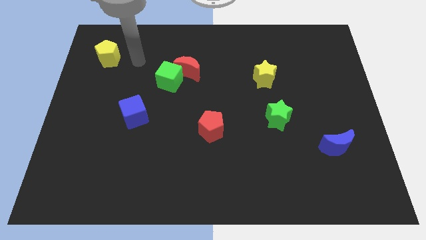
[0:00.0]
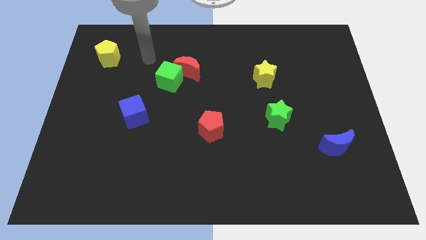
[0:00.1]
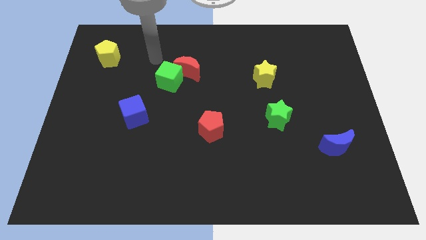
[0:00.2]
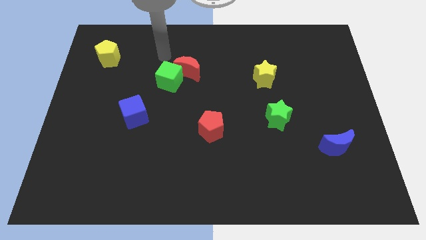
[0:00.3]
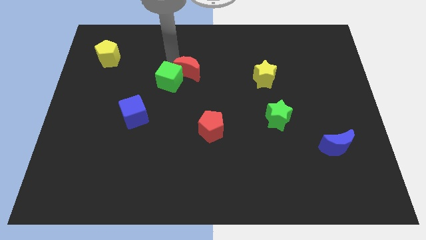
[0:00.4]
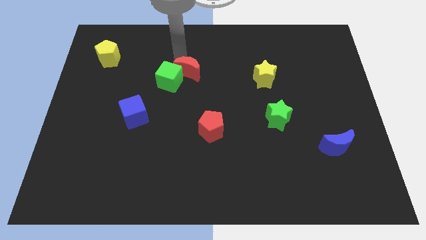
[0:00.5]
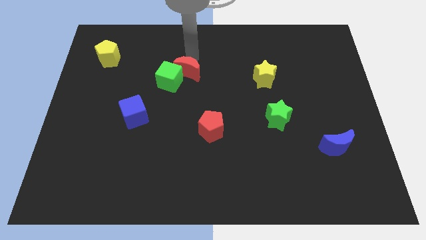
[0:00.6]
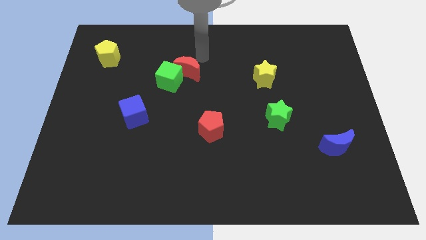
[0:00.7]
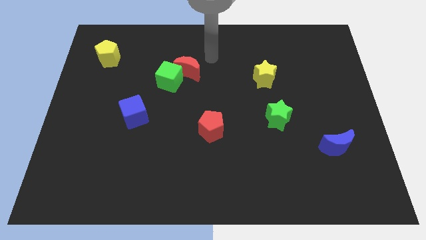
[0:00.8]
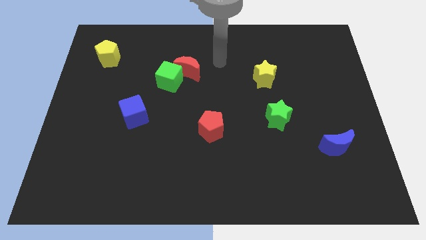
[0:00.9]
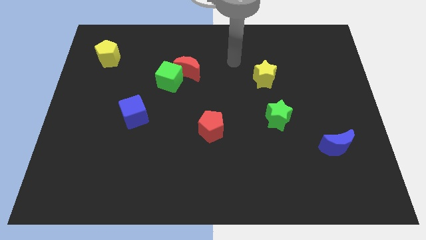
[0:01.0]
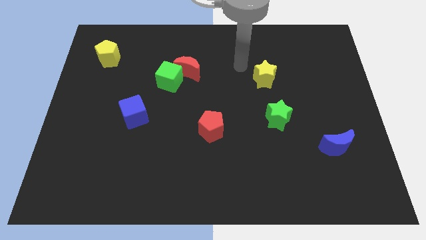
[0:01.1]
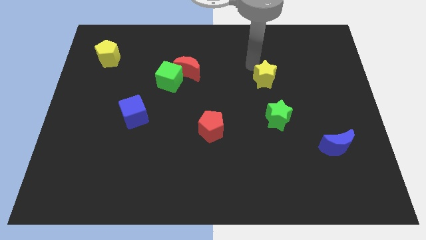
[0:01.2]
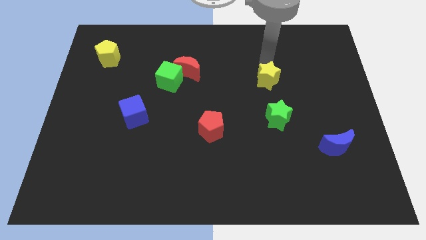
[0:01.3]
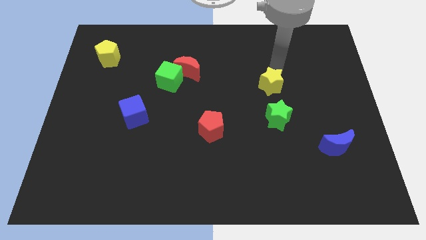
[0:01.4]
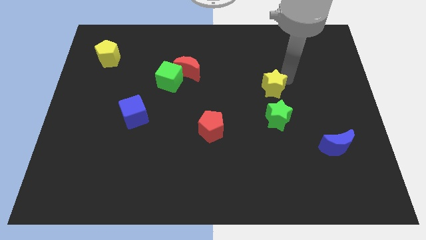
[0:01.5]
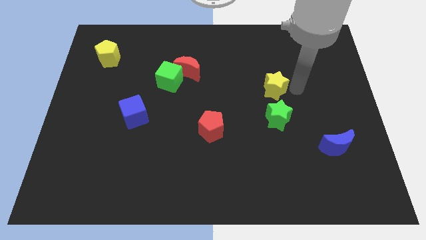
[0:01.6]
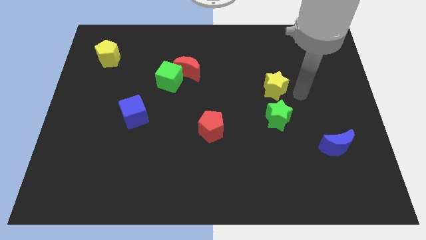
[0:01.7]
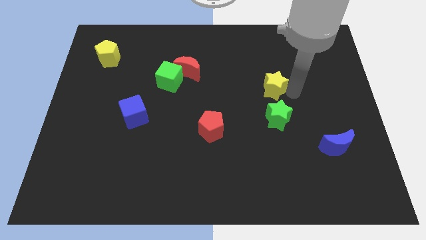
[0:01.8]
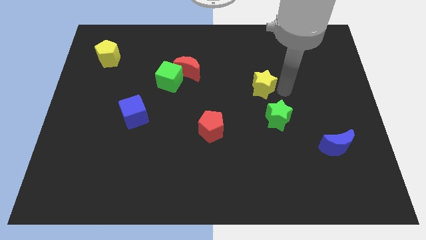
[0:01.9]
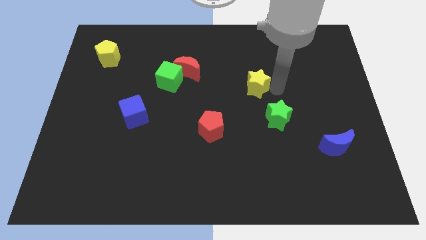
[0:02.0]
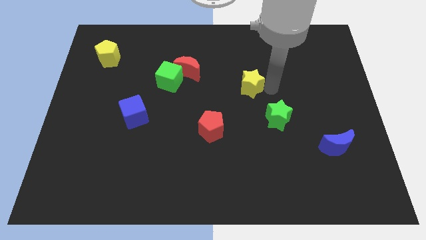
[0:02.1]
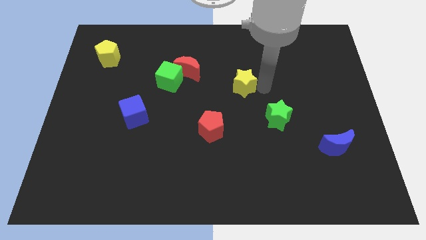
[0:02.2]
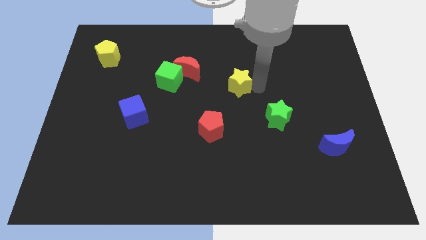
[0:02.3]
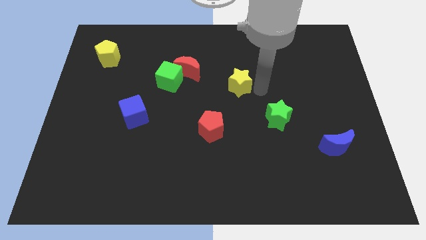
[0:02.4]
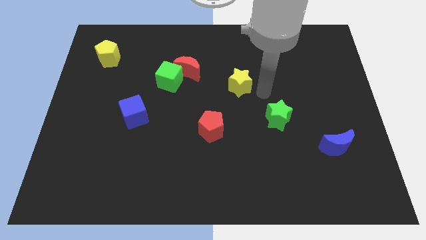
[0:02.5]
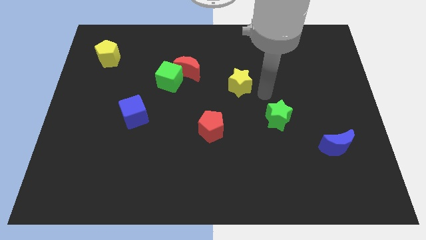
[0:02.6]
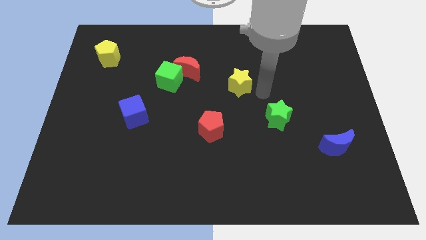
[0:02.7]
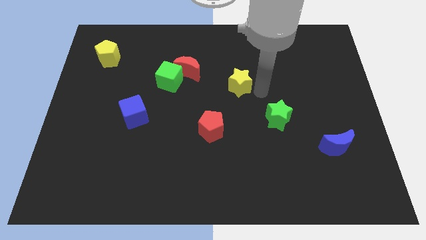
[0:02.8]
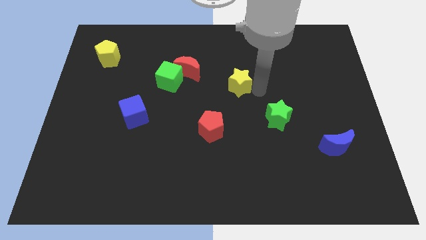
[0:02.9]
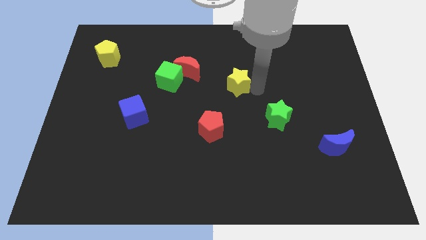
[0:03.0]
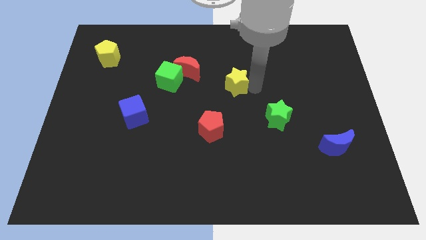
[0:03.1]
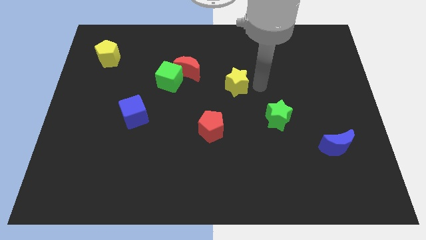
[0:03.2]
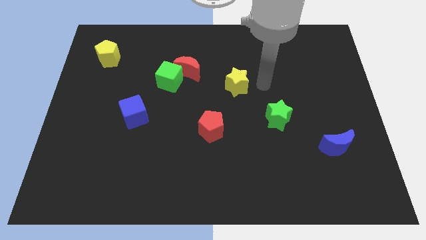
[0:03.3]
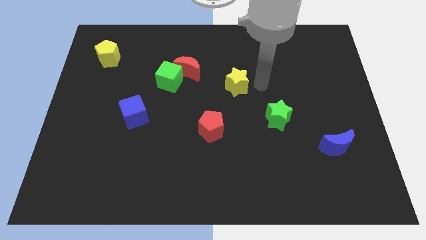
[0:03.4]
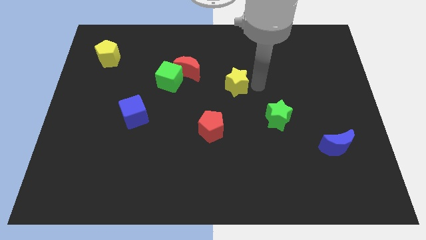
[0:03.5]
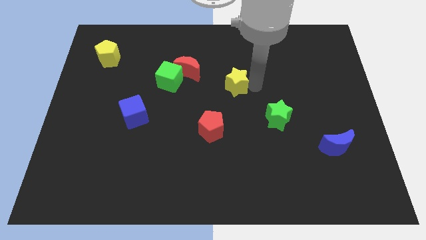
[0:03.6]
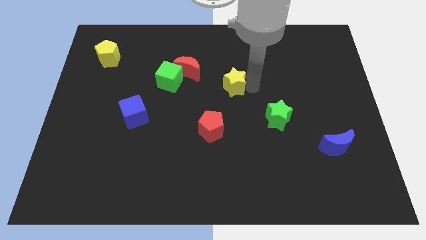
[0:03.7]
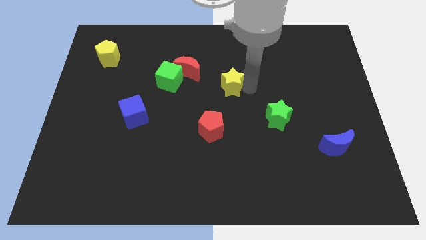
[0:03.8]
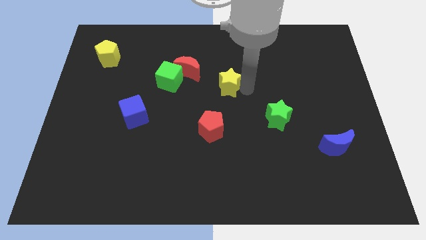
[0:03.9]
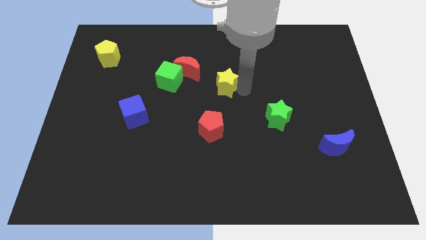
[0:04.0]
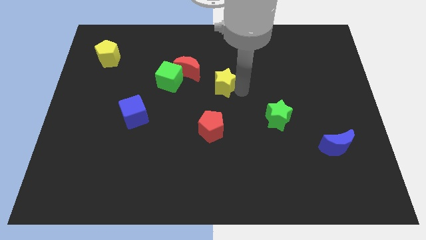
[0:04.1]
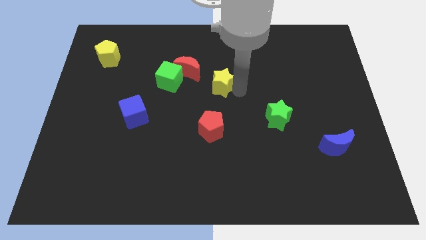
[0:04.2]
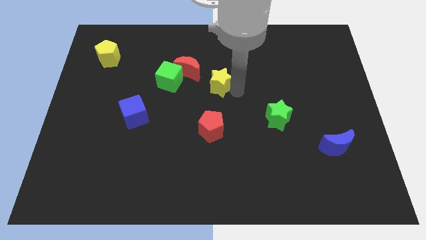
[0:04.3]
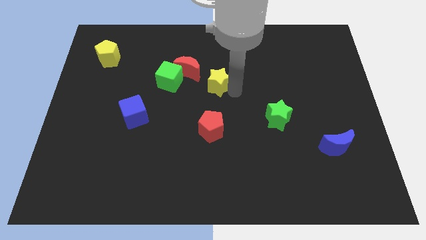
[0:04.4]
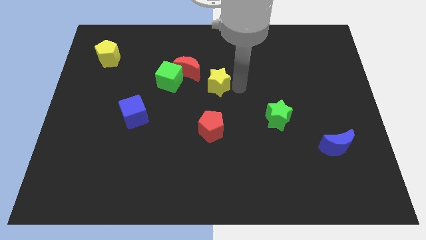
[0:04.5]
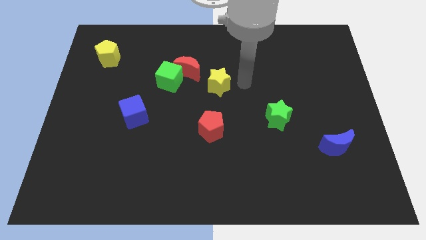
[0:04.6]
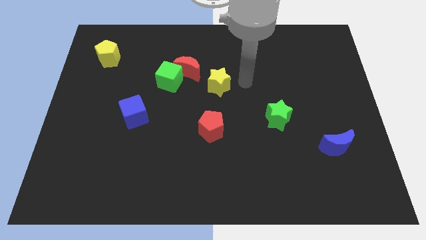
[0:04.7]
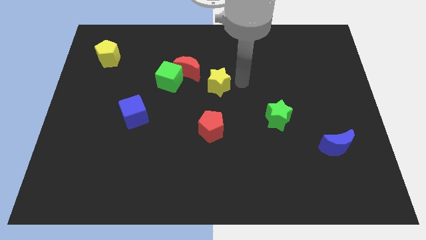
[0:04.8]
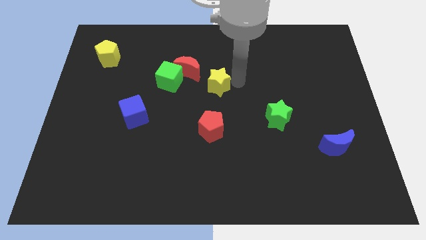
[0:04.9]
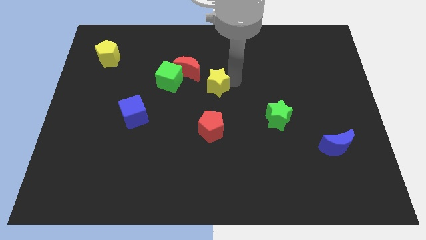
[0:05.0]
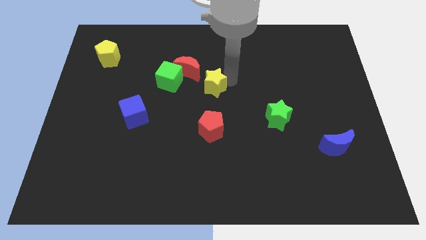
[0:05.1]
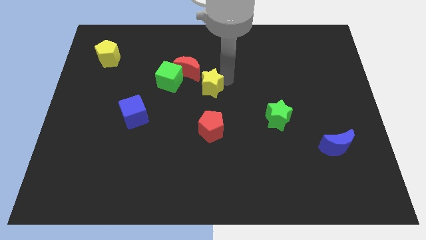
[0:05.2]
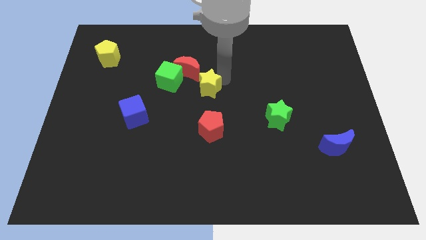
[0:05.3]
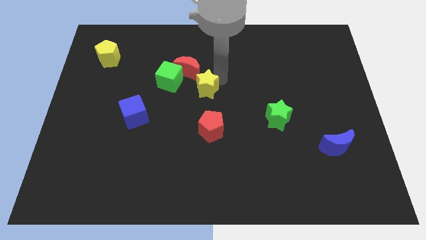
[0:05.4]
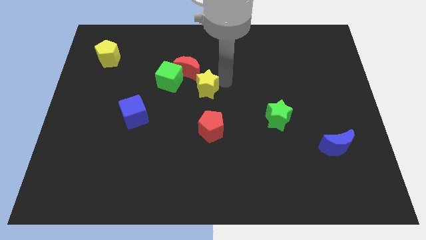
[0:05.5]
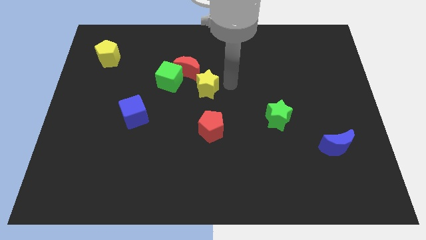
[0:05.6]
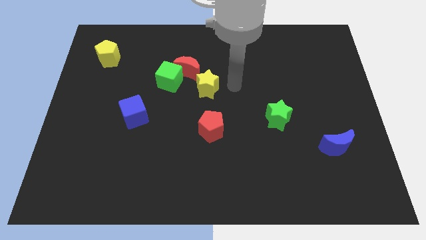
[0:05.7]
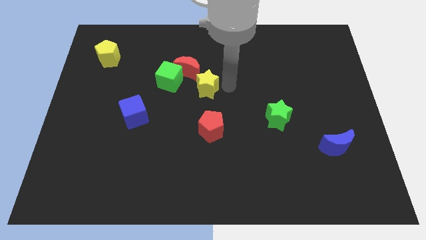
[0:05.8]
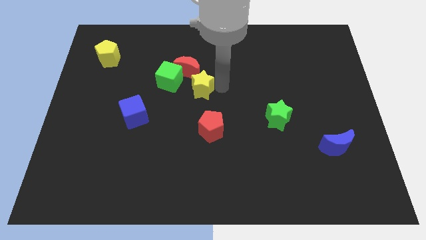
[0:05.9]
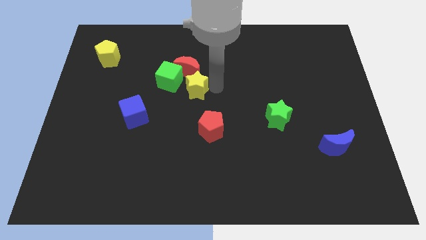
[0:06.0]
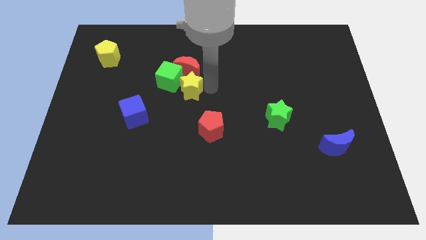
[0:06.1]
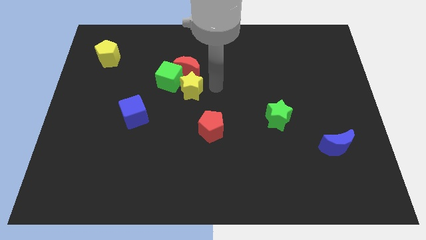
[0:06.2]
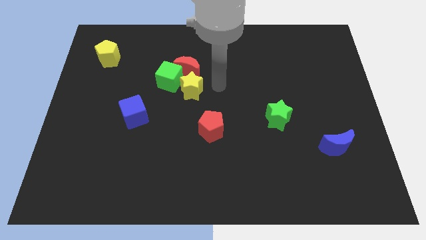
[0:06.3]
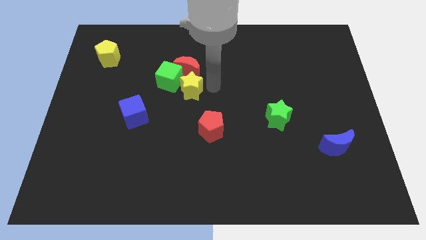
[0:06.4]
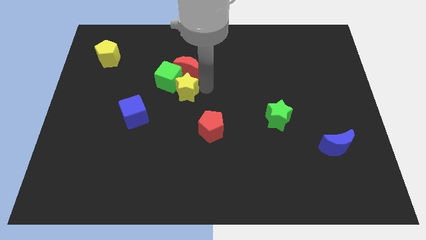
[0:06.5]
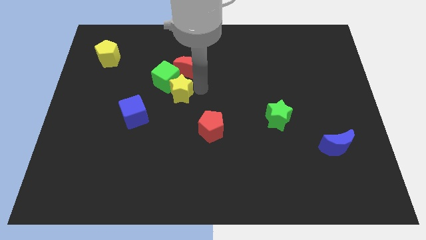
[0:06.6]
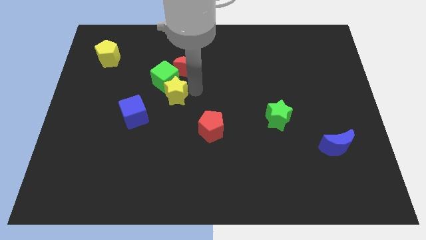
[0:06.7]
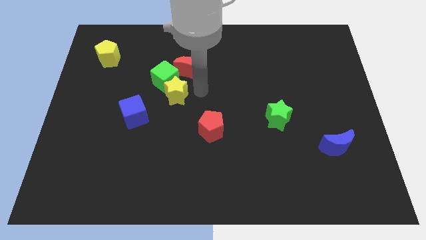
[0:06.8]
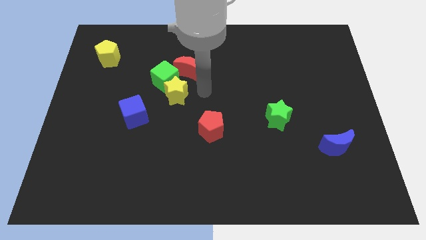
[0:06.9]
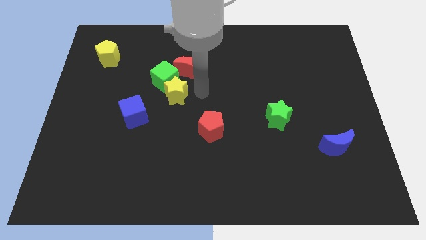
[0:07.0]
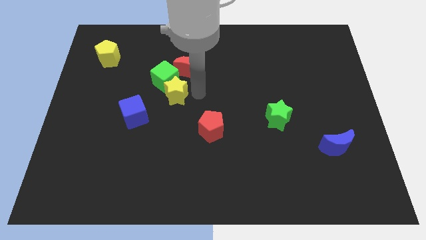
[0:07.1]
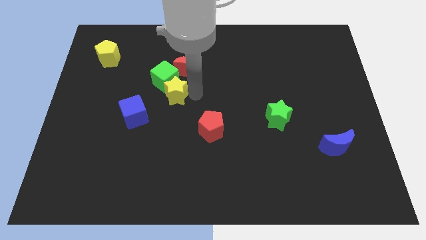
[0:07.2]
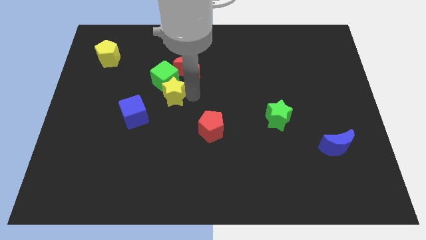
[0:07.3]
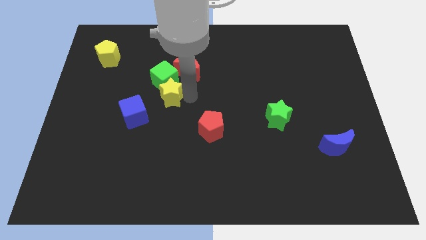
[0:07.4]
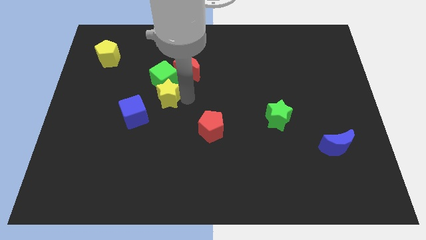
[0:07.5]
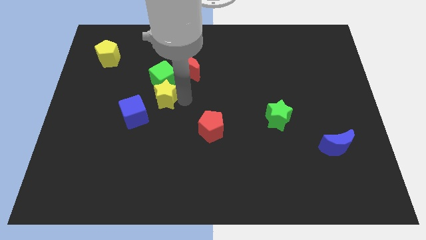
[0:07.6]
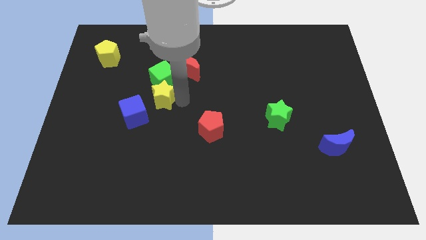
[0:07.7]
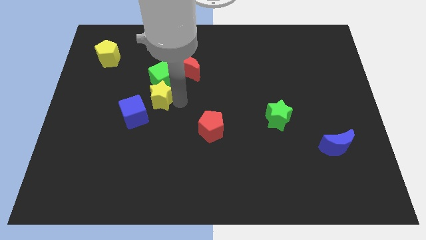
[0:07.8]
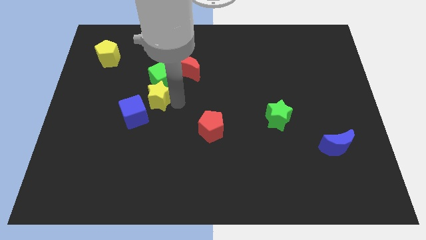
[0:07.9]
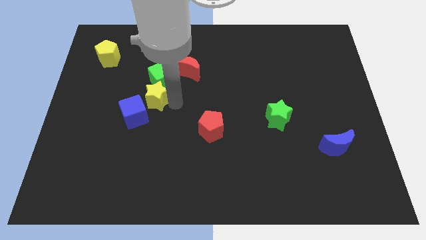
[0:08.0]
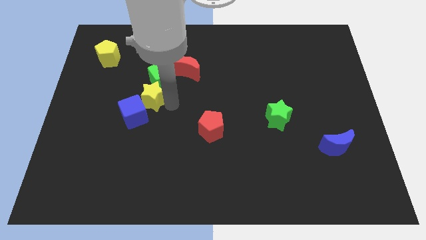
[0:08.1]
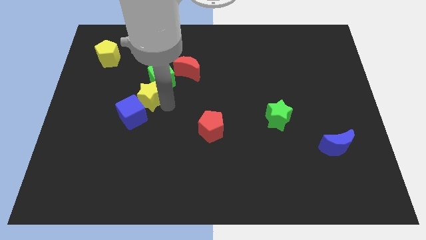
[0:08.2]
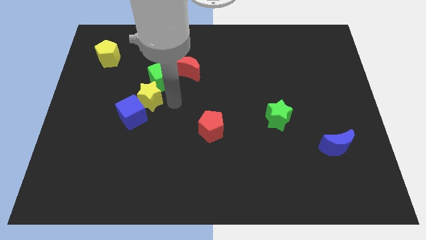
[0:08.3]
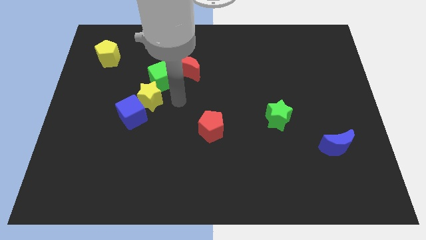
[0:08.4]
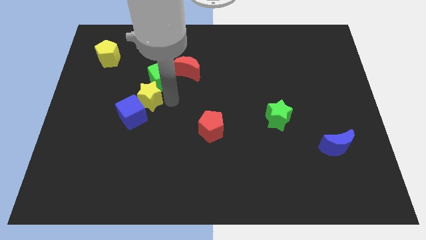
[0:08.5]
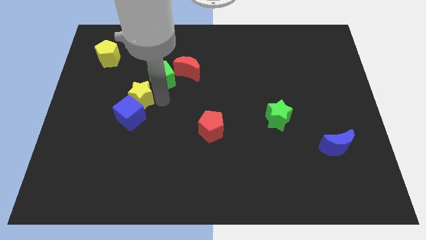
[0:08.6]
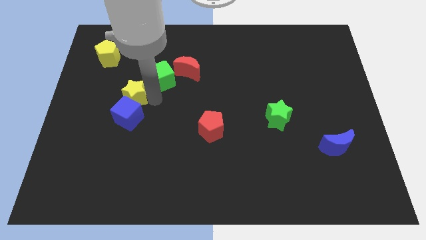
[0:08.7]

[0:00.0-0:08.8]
push the yellow star diagonally up and to the left of the blue cube
